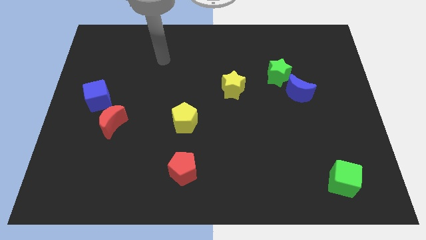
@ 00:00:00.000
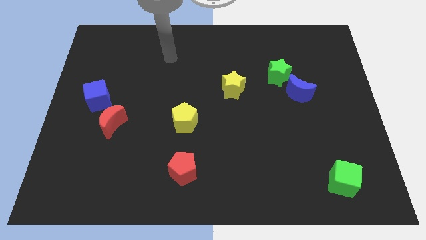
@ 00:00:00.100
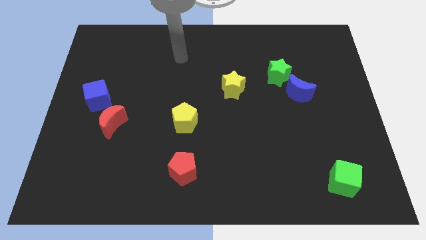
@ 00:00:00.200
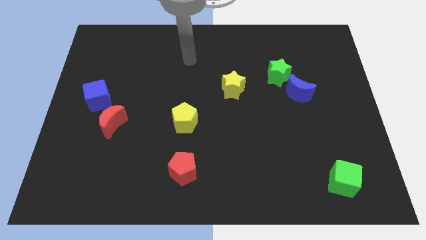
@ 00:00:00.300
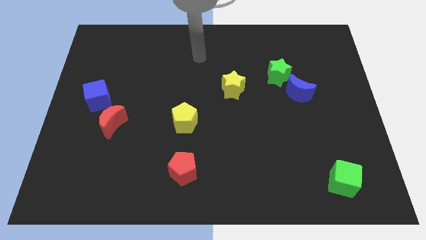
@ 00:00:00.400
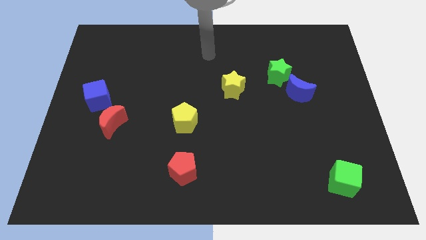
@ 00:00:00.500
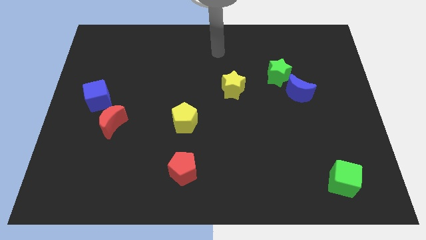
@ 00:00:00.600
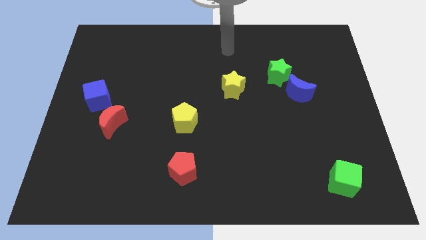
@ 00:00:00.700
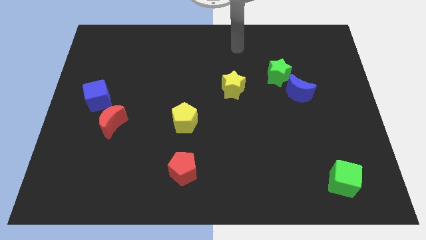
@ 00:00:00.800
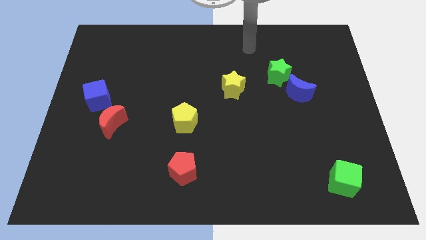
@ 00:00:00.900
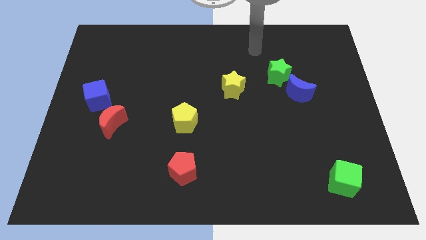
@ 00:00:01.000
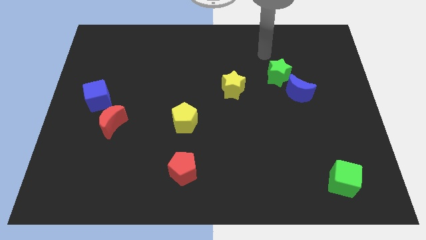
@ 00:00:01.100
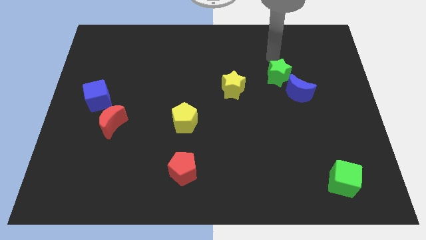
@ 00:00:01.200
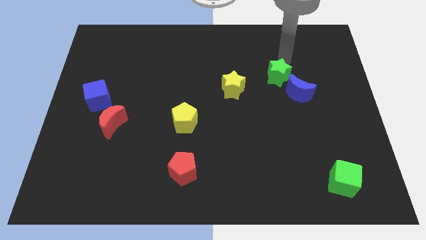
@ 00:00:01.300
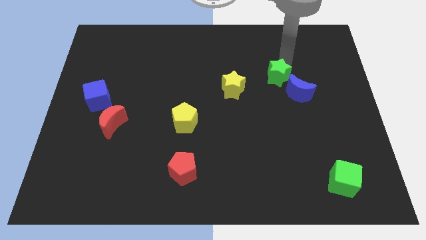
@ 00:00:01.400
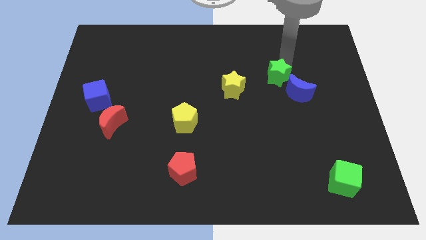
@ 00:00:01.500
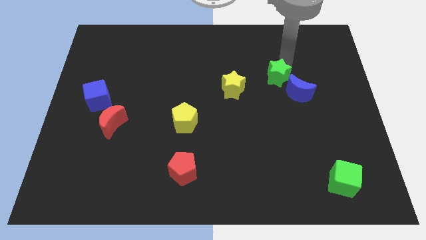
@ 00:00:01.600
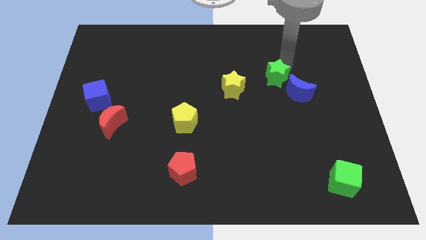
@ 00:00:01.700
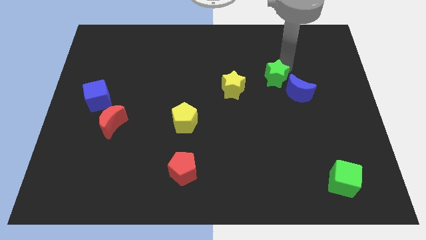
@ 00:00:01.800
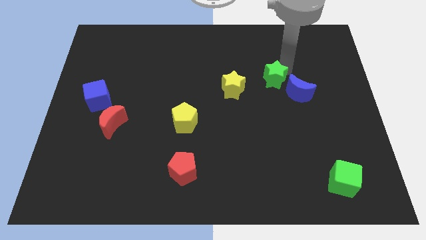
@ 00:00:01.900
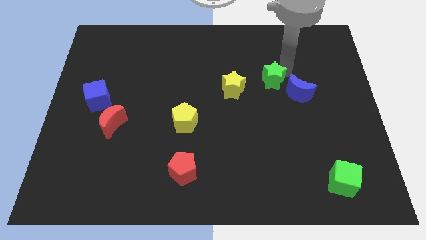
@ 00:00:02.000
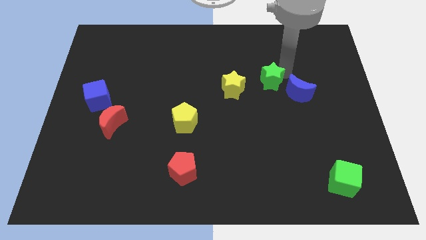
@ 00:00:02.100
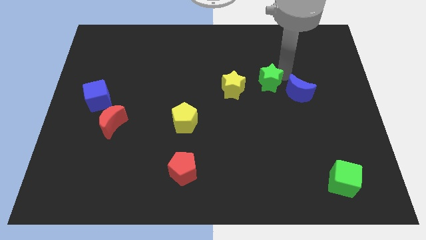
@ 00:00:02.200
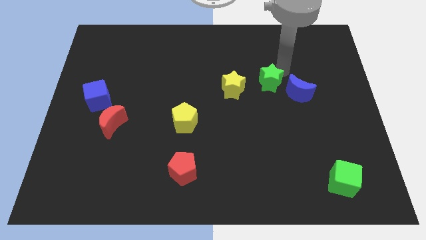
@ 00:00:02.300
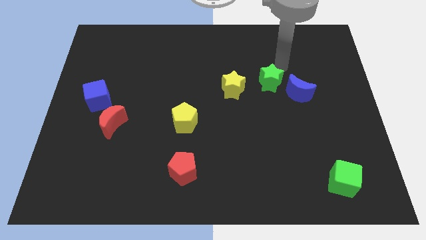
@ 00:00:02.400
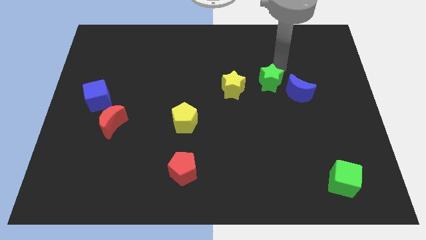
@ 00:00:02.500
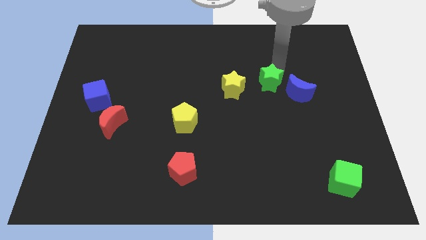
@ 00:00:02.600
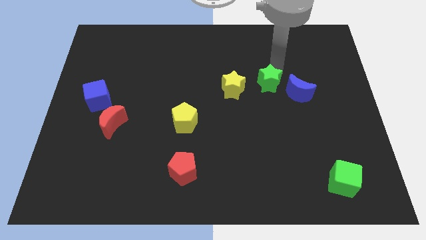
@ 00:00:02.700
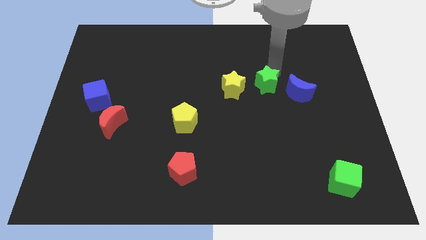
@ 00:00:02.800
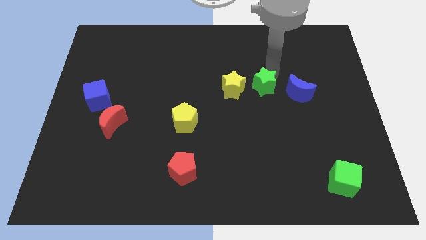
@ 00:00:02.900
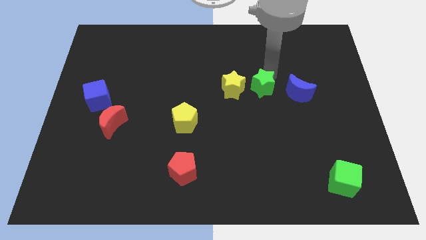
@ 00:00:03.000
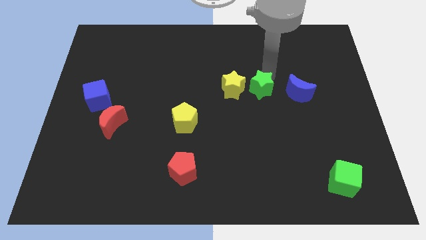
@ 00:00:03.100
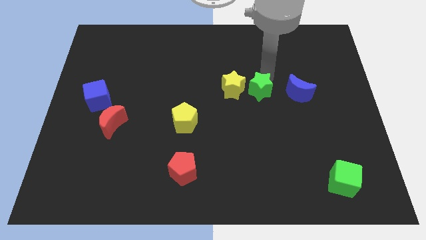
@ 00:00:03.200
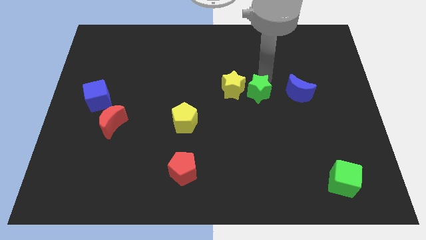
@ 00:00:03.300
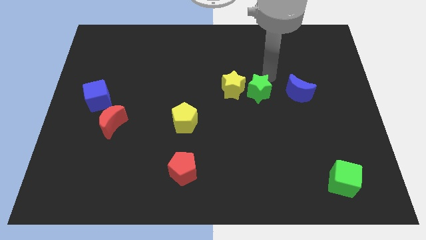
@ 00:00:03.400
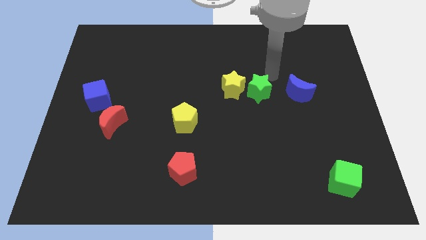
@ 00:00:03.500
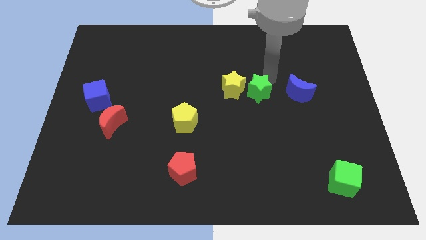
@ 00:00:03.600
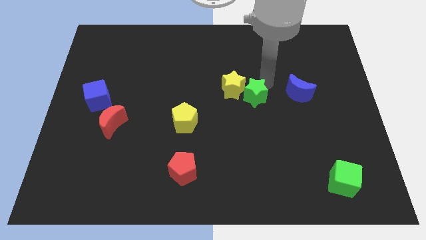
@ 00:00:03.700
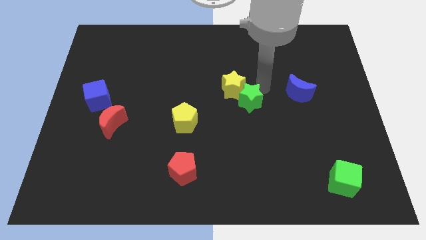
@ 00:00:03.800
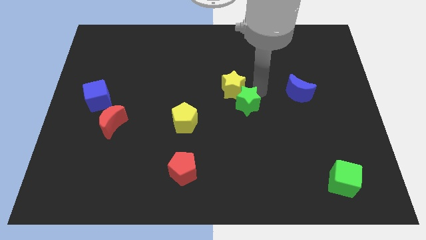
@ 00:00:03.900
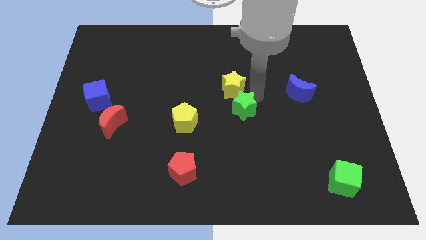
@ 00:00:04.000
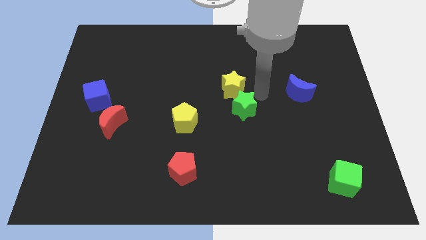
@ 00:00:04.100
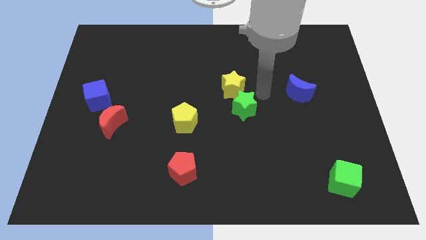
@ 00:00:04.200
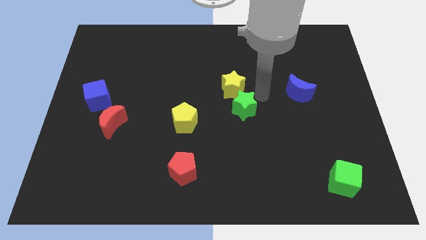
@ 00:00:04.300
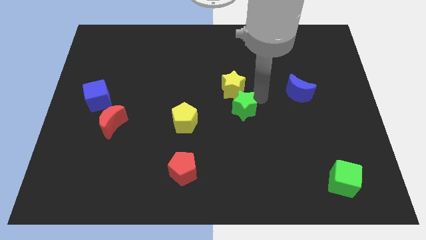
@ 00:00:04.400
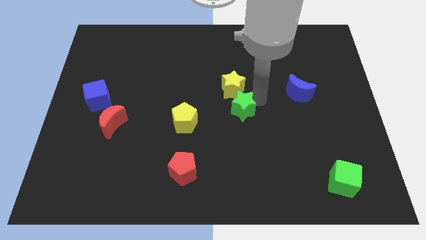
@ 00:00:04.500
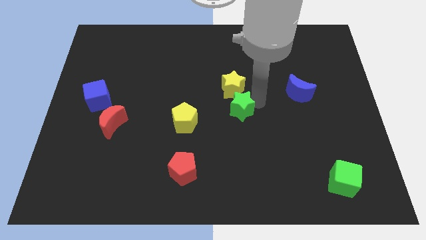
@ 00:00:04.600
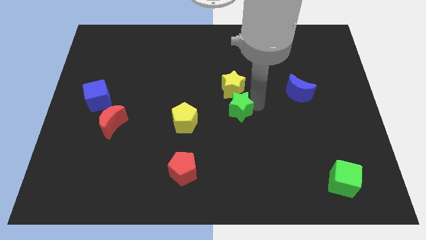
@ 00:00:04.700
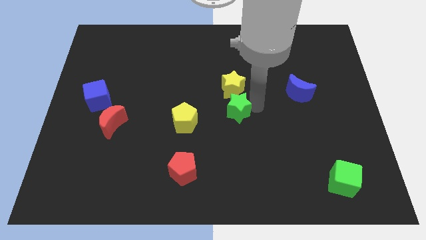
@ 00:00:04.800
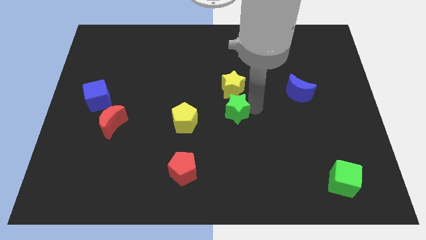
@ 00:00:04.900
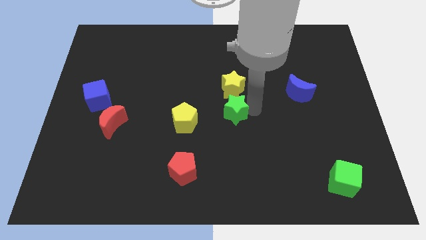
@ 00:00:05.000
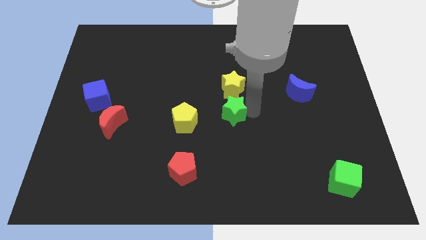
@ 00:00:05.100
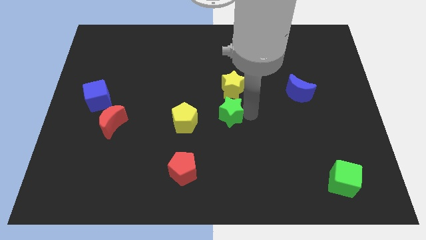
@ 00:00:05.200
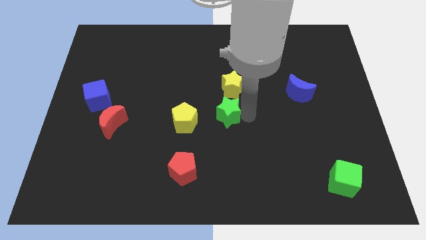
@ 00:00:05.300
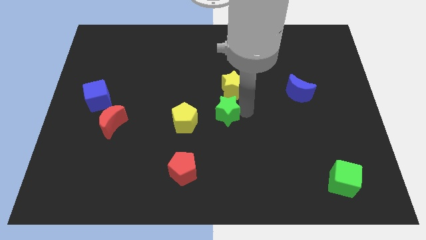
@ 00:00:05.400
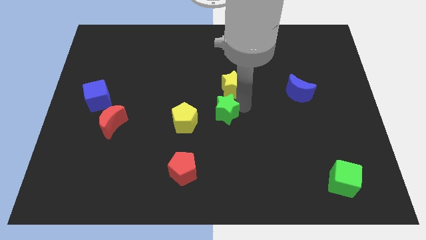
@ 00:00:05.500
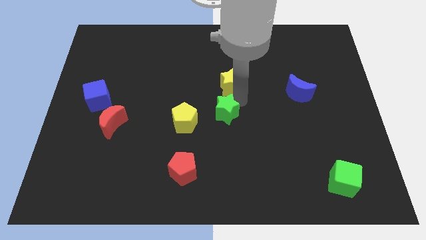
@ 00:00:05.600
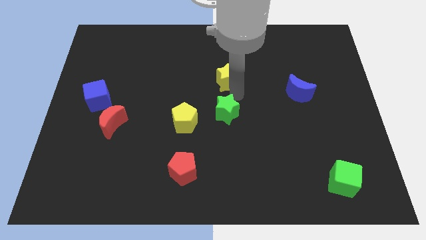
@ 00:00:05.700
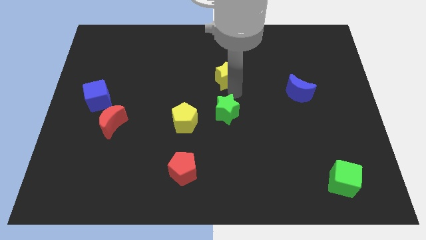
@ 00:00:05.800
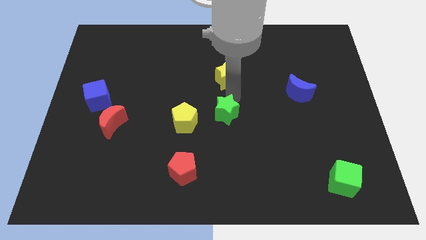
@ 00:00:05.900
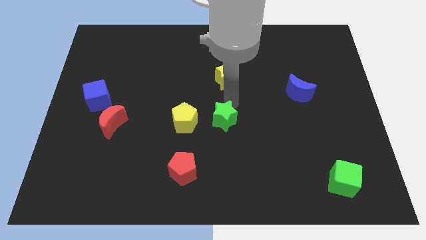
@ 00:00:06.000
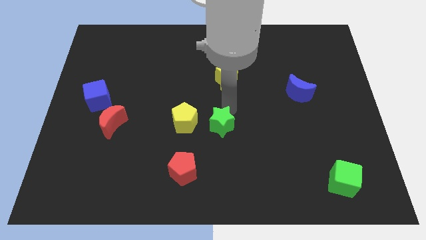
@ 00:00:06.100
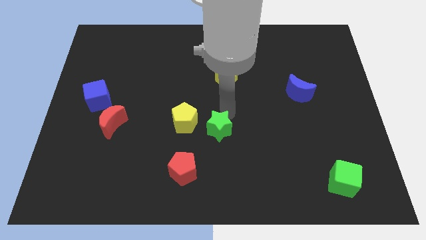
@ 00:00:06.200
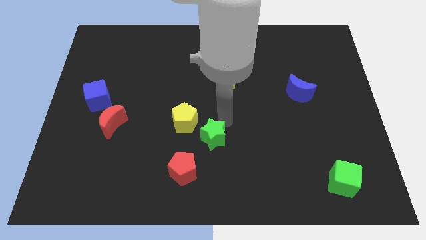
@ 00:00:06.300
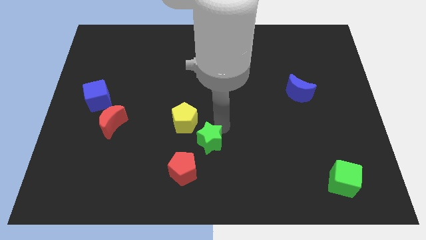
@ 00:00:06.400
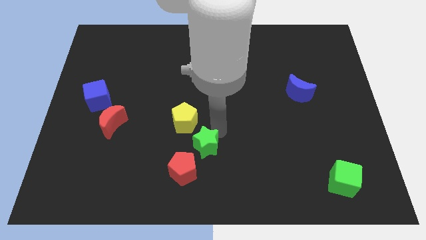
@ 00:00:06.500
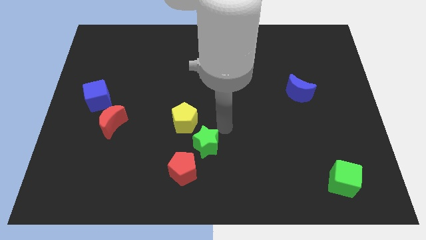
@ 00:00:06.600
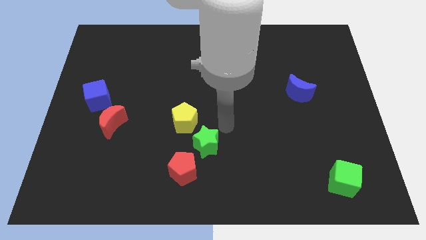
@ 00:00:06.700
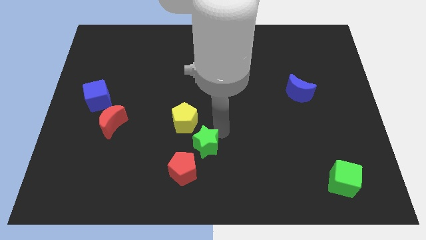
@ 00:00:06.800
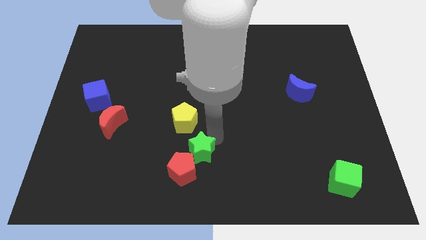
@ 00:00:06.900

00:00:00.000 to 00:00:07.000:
move the green star towards the red pentagon

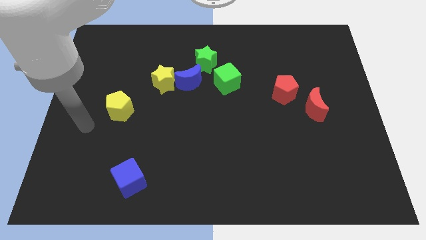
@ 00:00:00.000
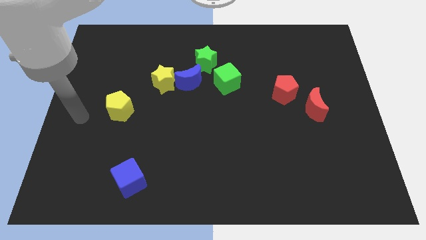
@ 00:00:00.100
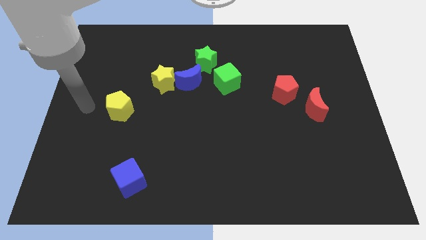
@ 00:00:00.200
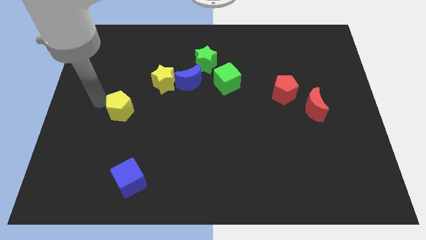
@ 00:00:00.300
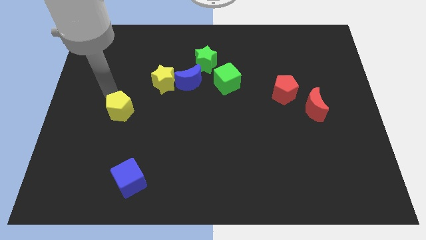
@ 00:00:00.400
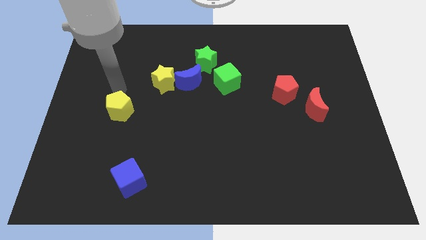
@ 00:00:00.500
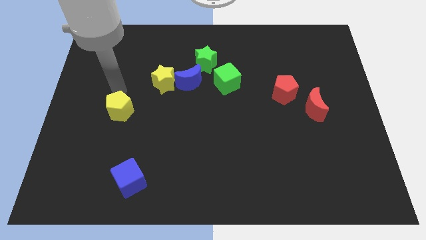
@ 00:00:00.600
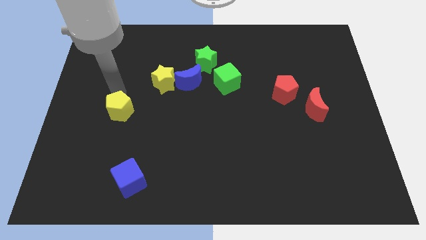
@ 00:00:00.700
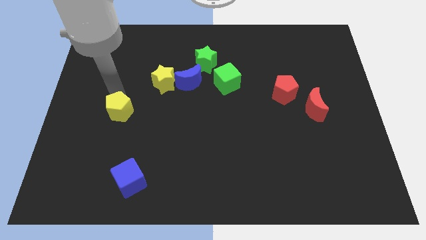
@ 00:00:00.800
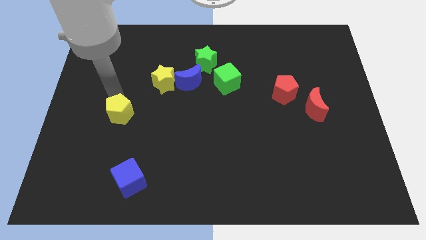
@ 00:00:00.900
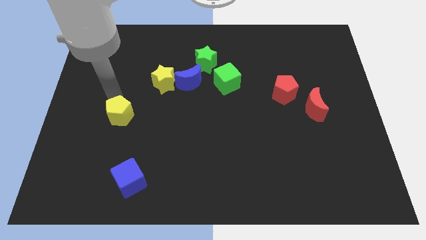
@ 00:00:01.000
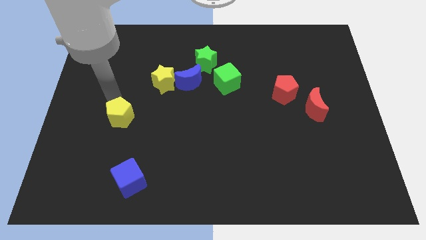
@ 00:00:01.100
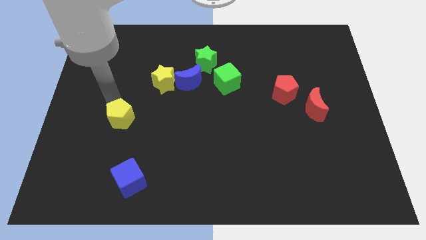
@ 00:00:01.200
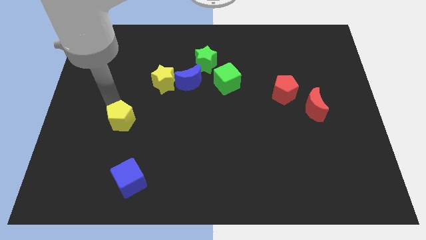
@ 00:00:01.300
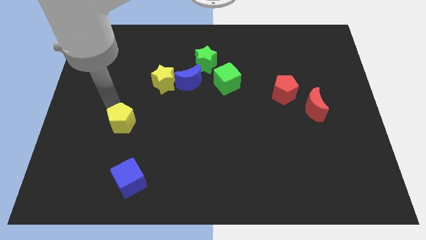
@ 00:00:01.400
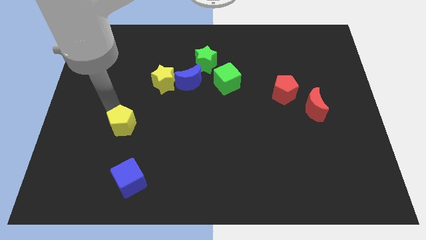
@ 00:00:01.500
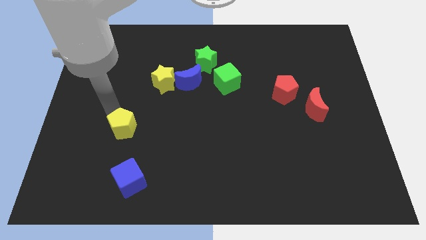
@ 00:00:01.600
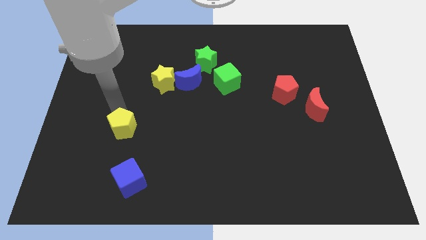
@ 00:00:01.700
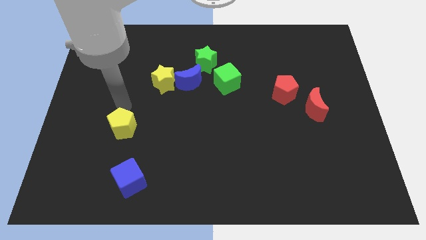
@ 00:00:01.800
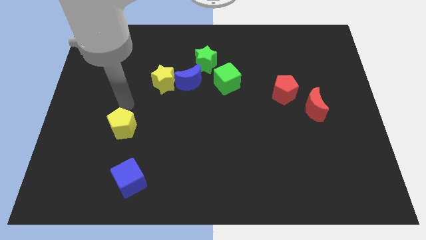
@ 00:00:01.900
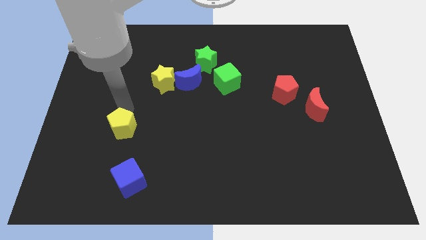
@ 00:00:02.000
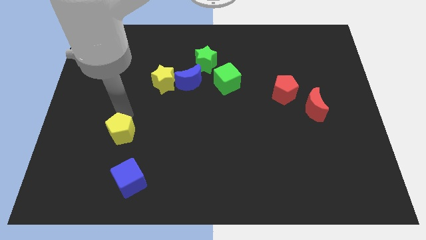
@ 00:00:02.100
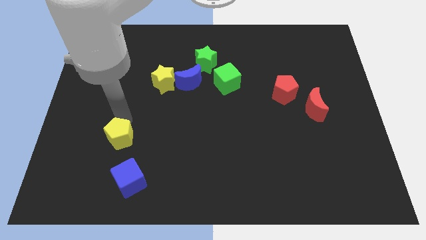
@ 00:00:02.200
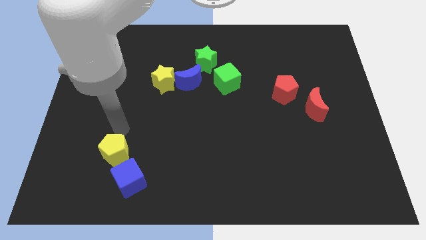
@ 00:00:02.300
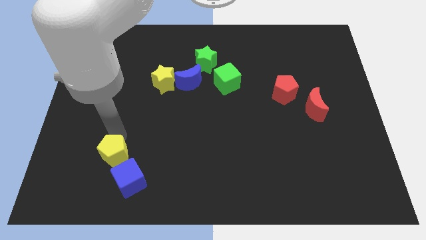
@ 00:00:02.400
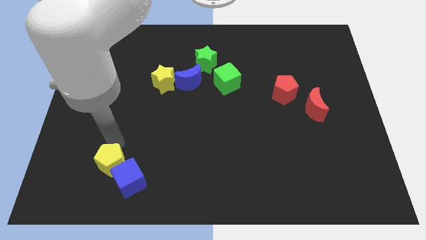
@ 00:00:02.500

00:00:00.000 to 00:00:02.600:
move the yellow pentagon next to the blue cube
